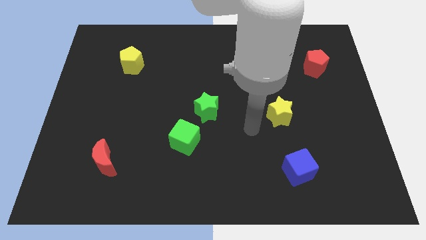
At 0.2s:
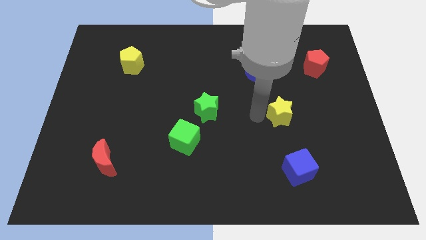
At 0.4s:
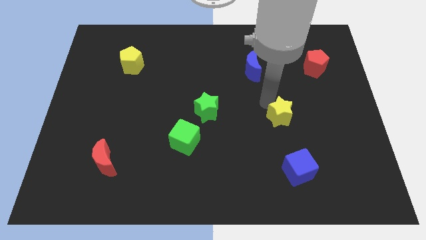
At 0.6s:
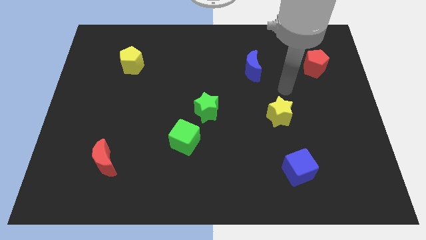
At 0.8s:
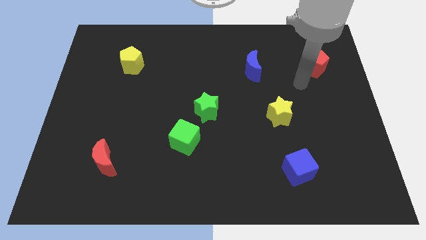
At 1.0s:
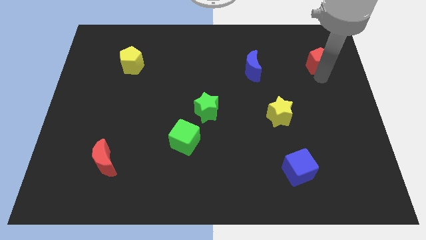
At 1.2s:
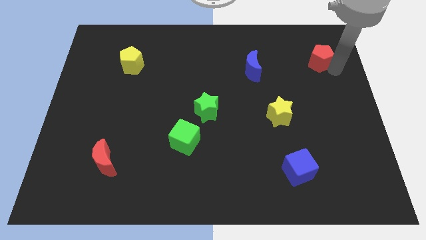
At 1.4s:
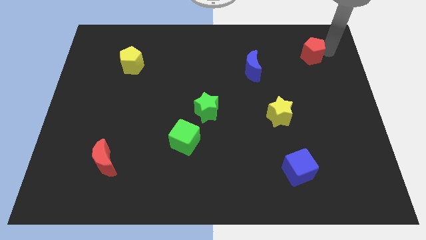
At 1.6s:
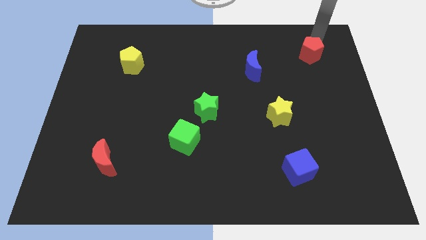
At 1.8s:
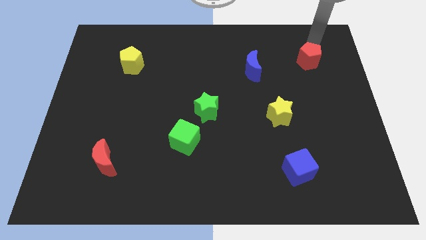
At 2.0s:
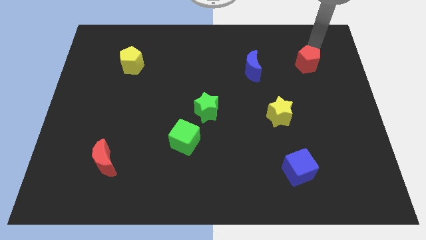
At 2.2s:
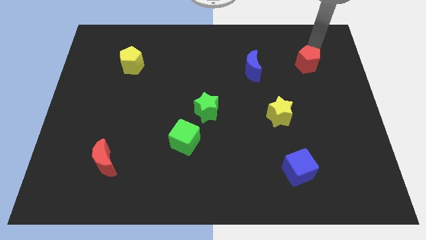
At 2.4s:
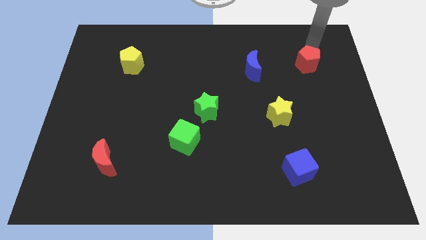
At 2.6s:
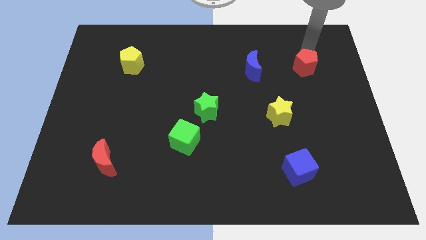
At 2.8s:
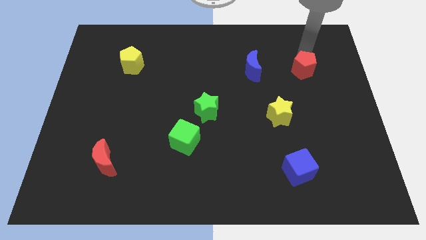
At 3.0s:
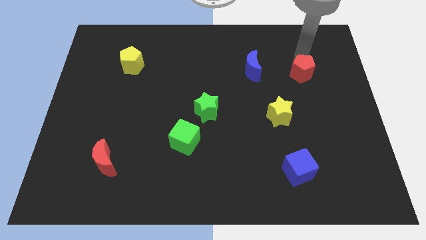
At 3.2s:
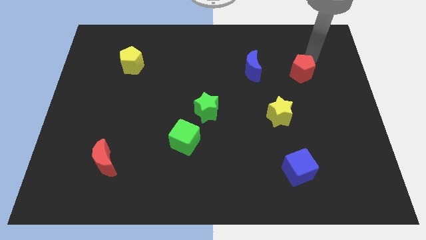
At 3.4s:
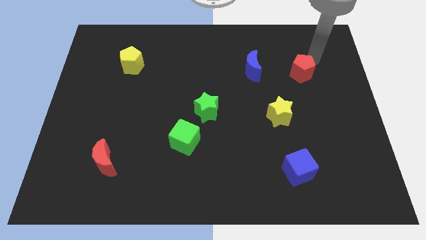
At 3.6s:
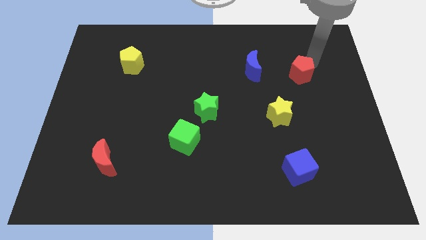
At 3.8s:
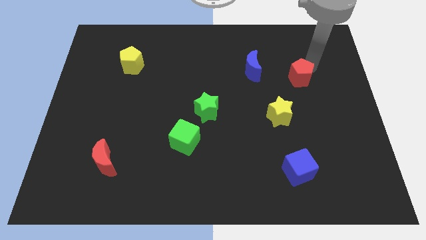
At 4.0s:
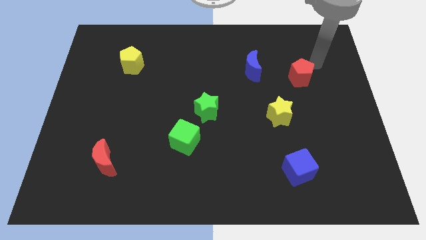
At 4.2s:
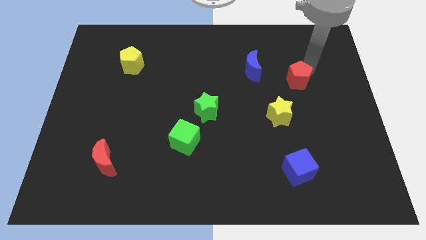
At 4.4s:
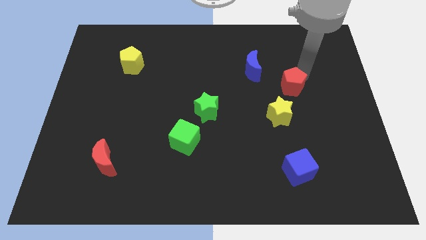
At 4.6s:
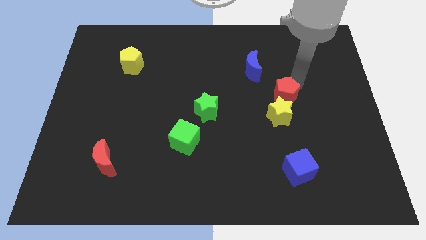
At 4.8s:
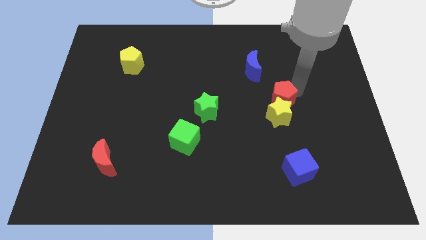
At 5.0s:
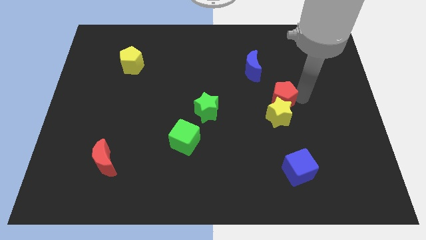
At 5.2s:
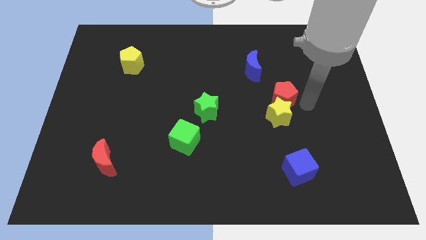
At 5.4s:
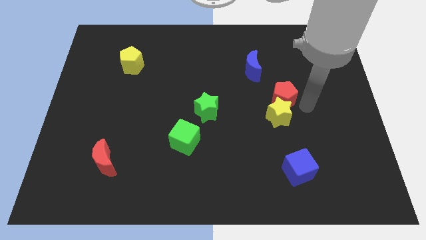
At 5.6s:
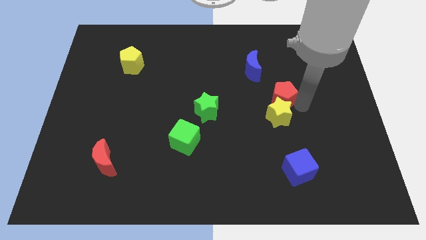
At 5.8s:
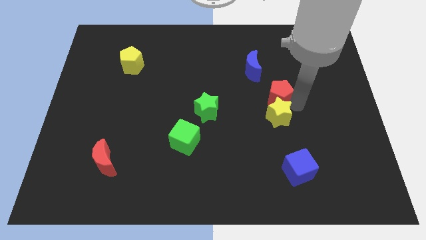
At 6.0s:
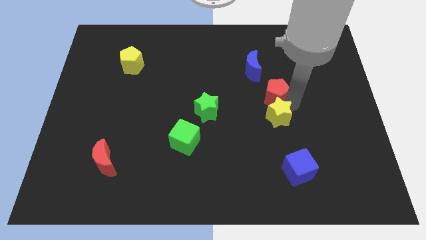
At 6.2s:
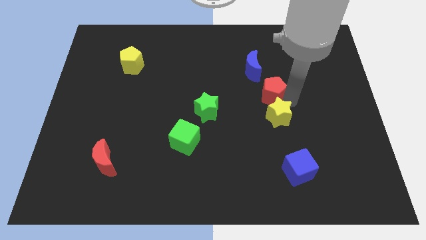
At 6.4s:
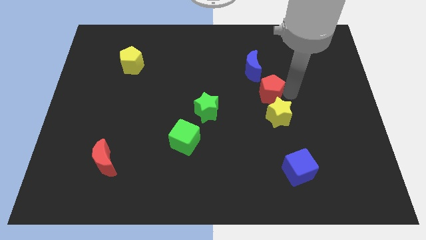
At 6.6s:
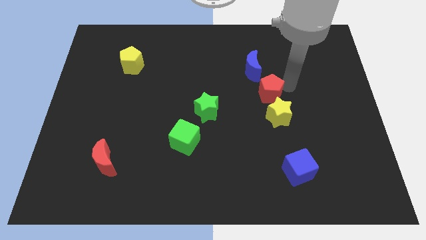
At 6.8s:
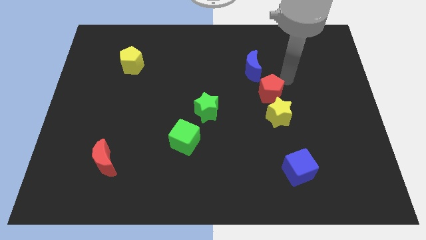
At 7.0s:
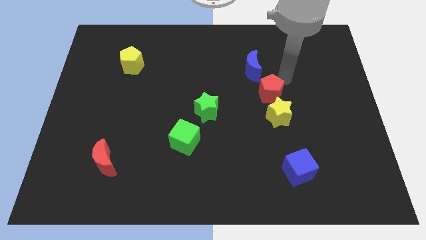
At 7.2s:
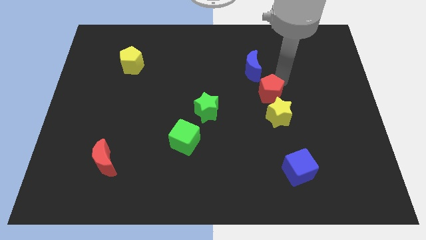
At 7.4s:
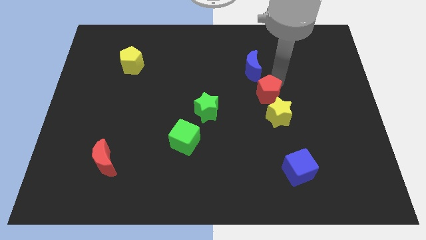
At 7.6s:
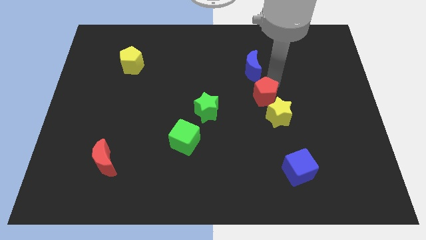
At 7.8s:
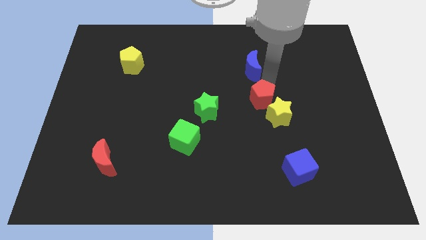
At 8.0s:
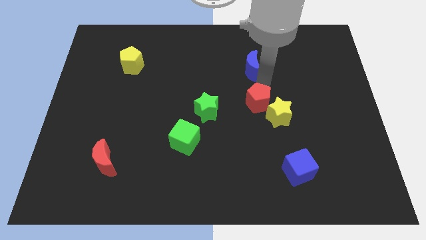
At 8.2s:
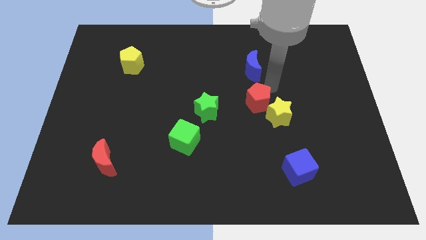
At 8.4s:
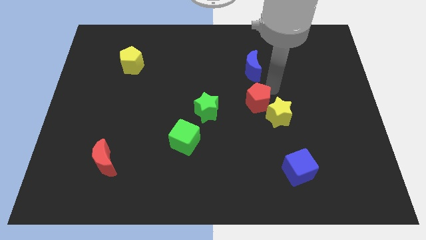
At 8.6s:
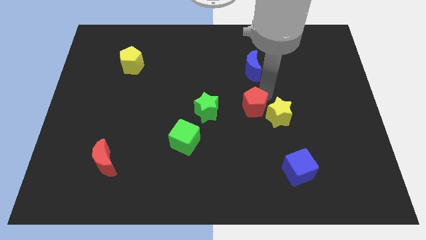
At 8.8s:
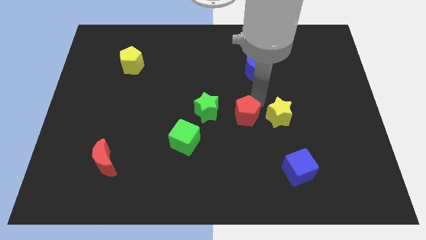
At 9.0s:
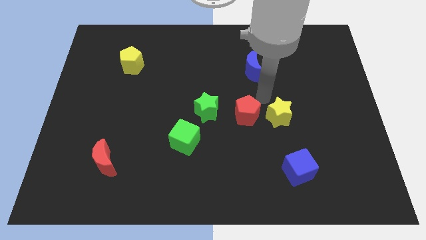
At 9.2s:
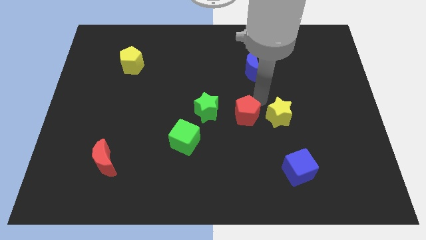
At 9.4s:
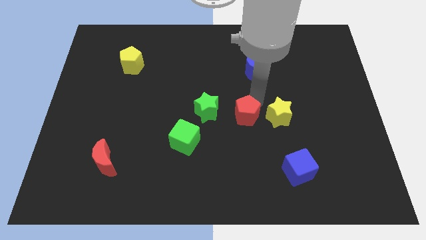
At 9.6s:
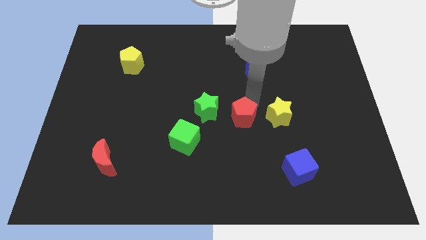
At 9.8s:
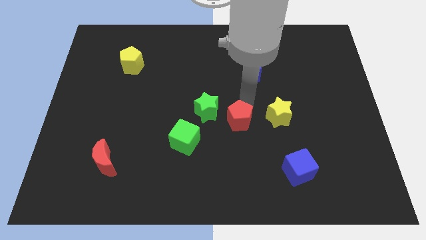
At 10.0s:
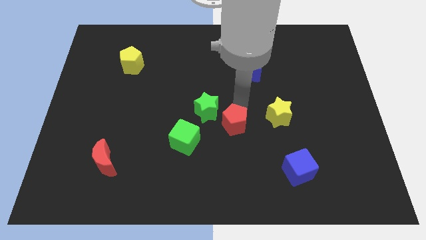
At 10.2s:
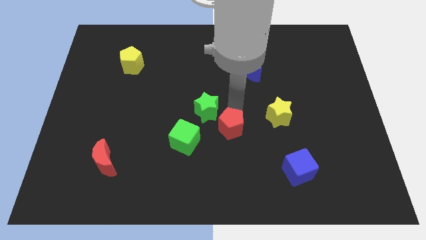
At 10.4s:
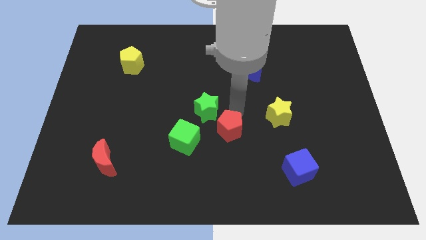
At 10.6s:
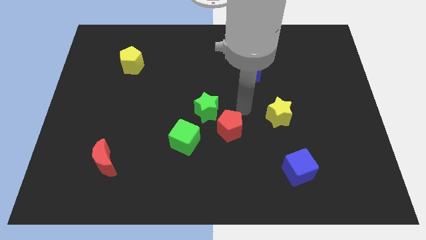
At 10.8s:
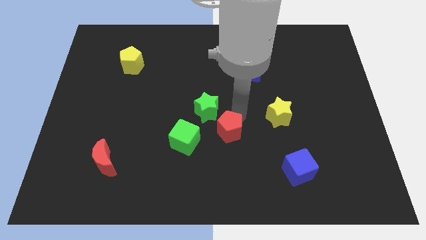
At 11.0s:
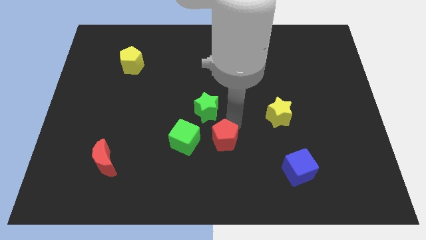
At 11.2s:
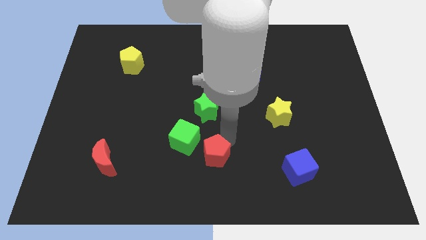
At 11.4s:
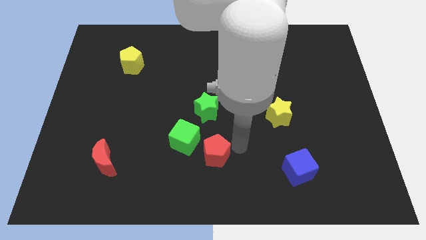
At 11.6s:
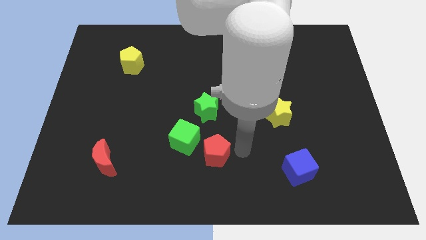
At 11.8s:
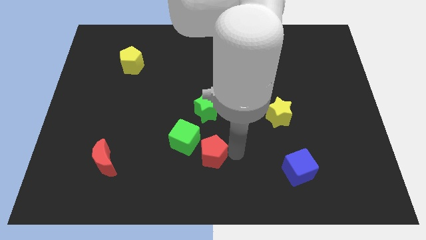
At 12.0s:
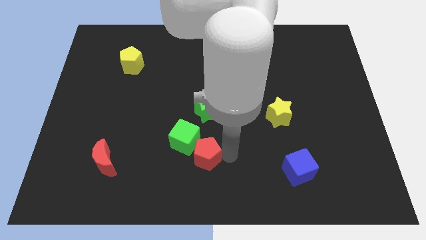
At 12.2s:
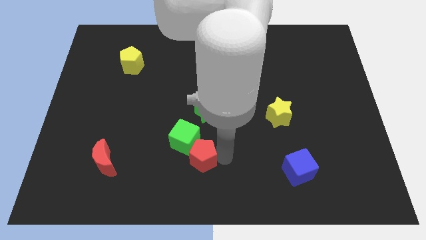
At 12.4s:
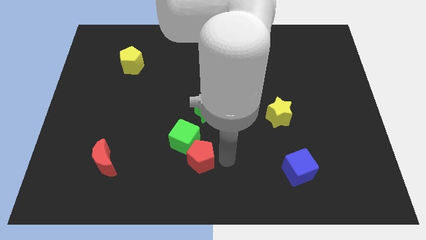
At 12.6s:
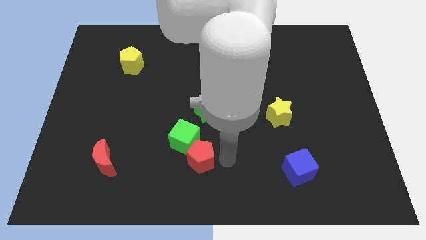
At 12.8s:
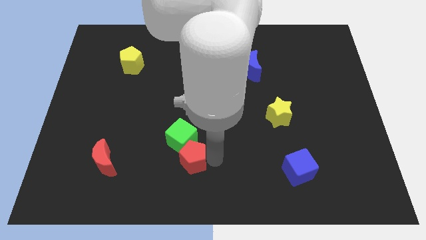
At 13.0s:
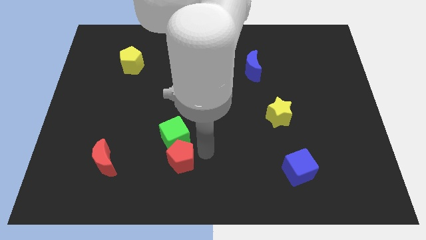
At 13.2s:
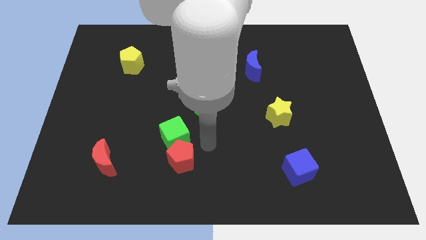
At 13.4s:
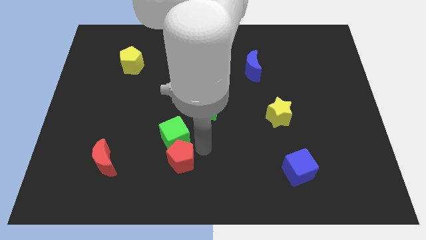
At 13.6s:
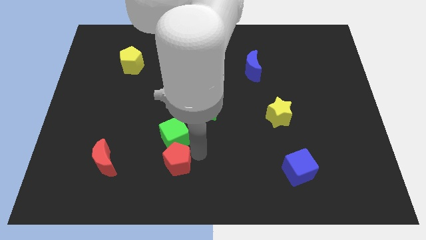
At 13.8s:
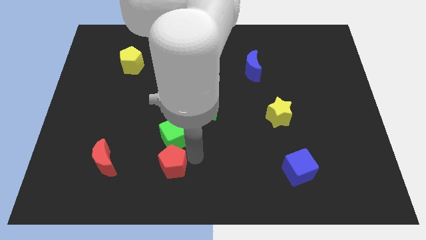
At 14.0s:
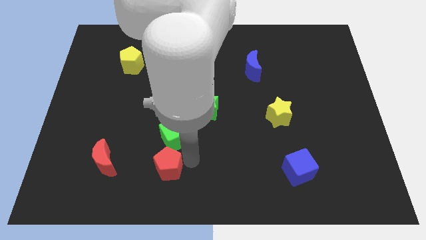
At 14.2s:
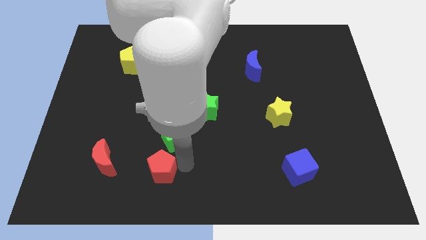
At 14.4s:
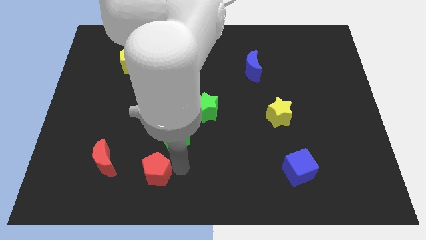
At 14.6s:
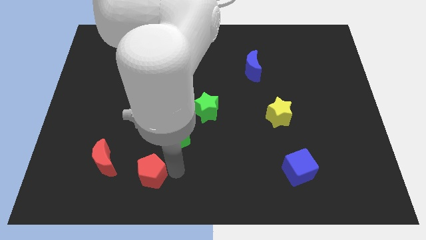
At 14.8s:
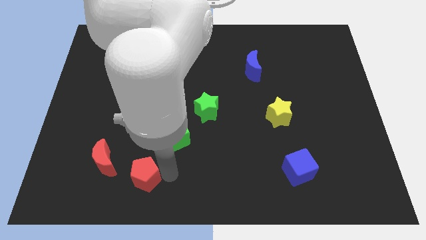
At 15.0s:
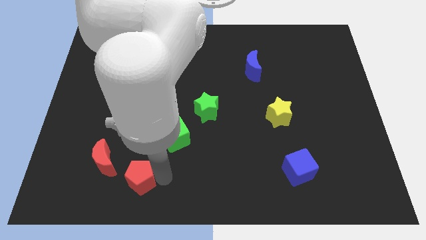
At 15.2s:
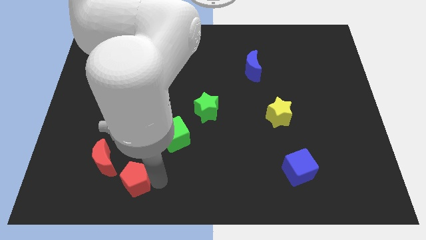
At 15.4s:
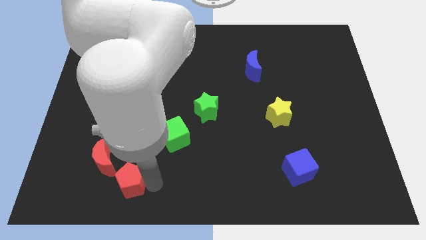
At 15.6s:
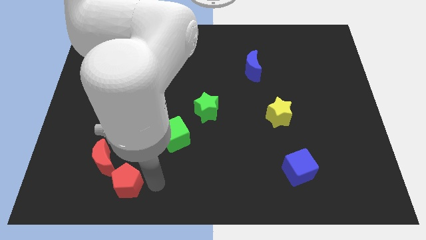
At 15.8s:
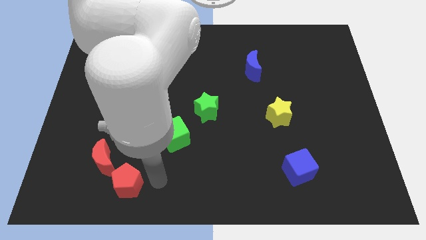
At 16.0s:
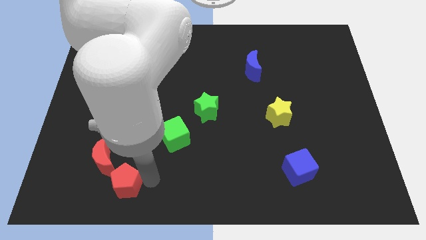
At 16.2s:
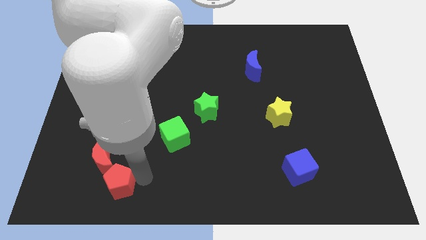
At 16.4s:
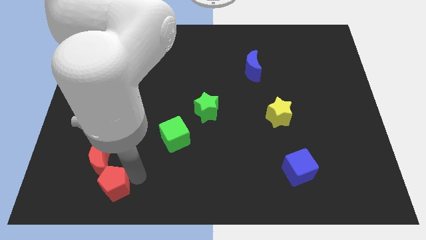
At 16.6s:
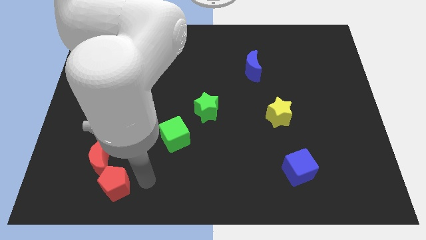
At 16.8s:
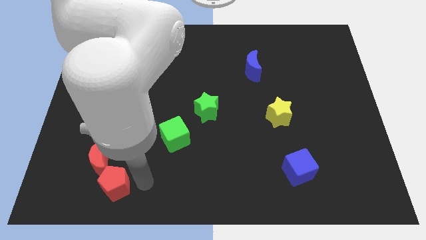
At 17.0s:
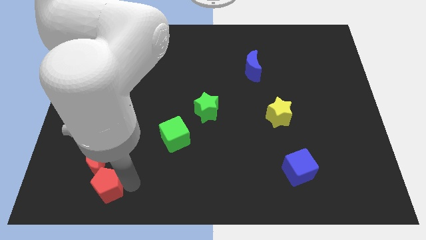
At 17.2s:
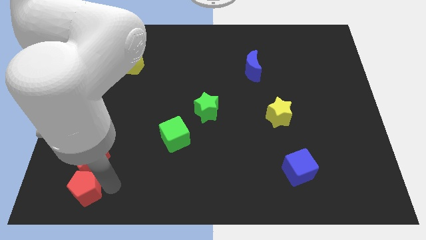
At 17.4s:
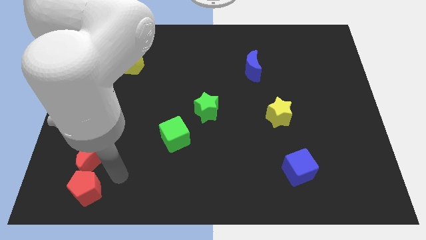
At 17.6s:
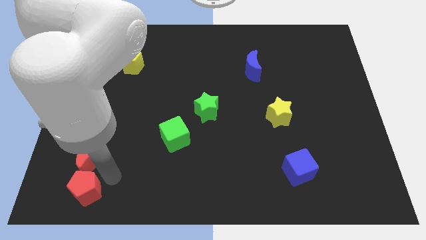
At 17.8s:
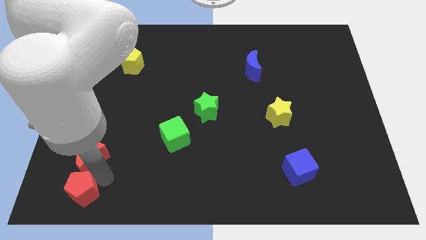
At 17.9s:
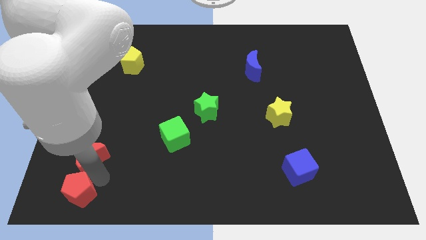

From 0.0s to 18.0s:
slide the red pentagon to the bottom left of the board
